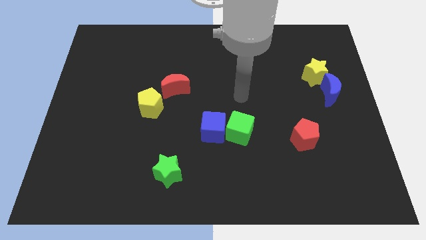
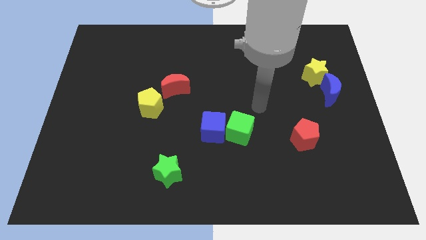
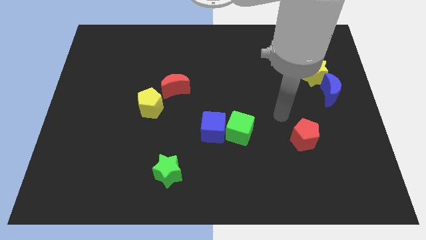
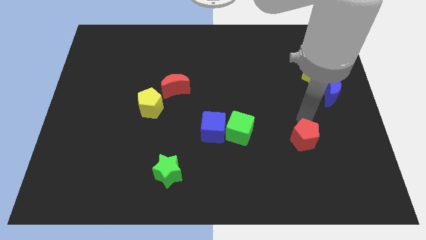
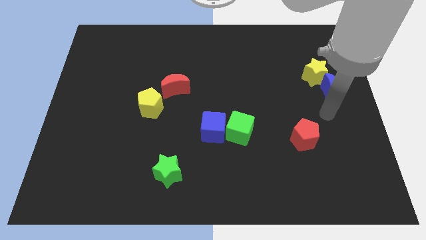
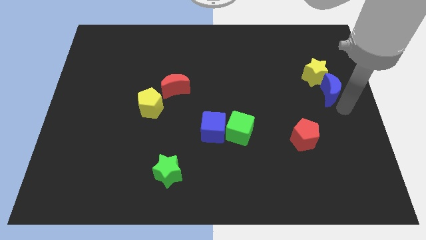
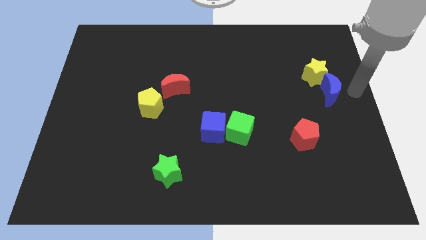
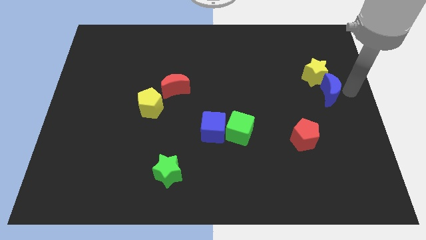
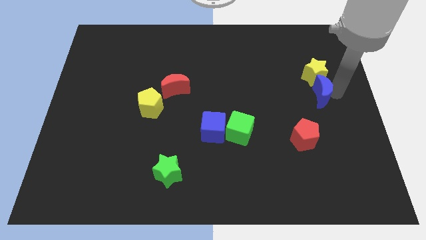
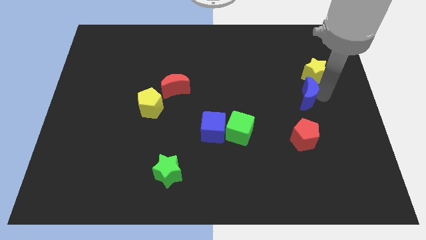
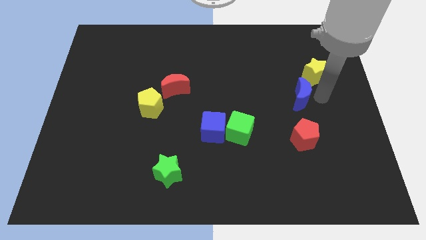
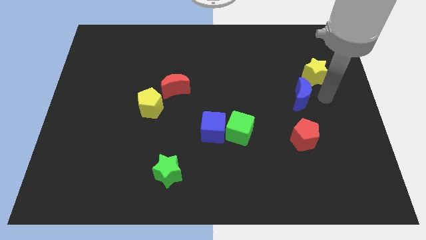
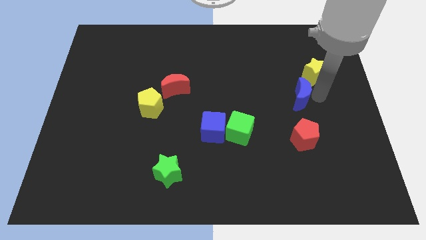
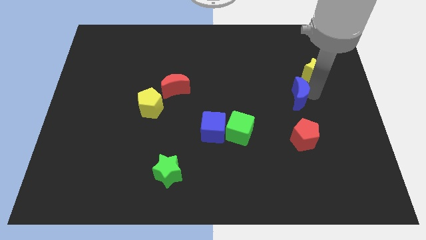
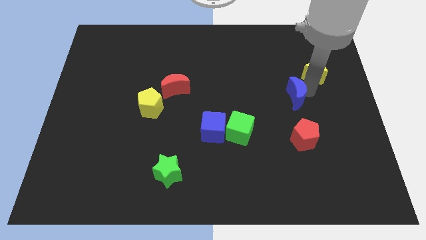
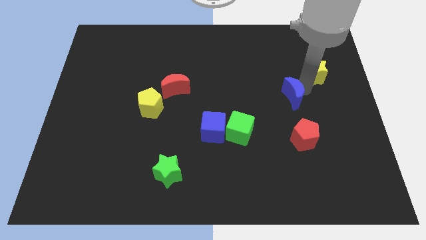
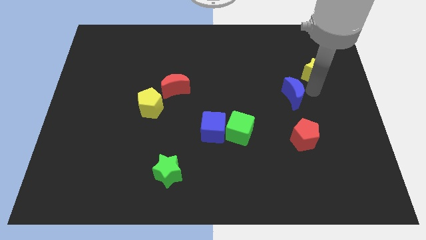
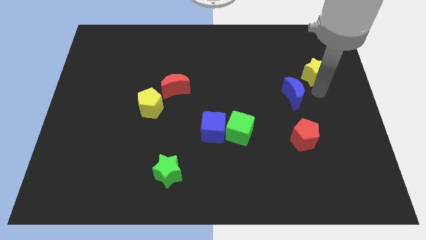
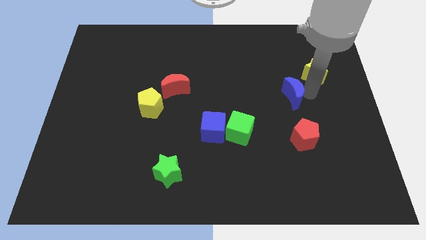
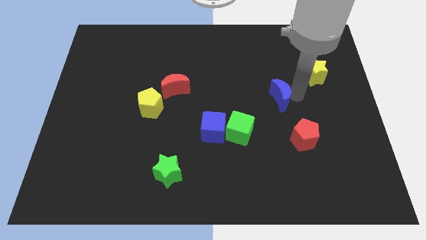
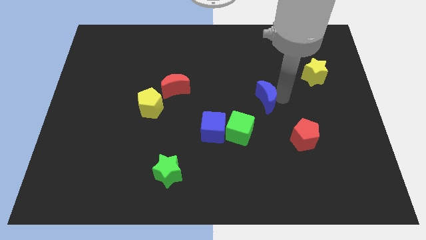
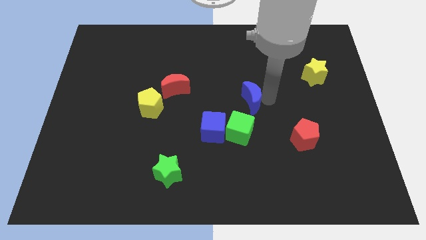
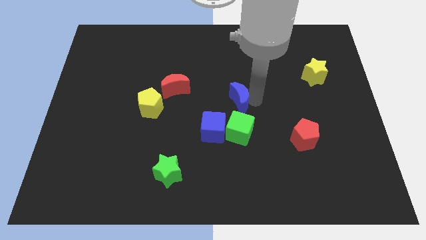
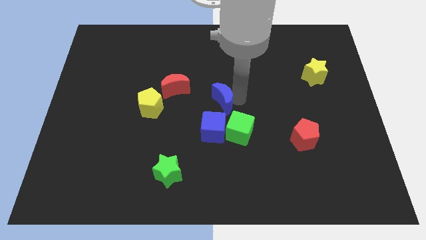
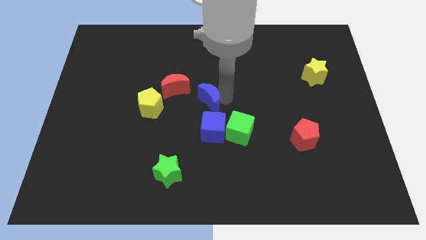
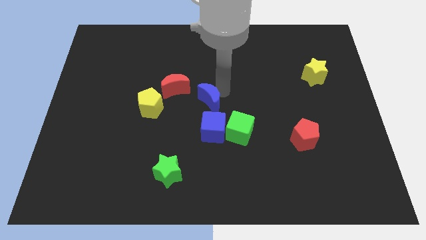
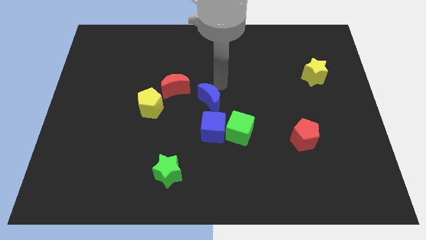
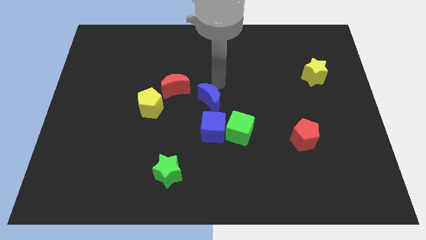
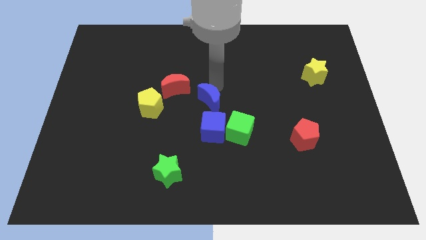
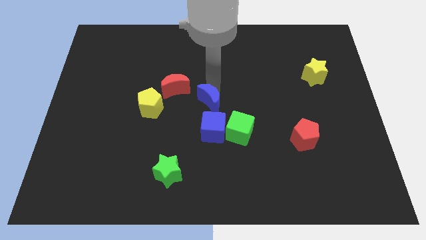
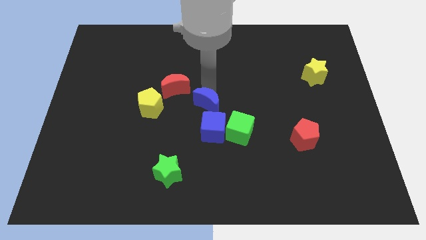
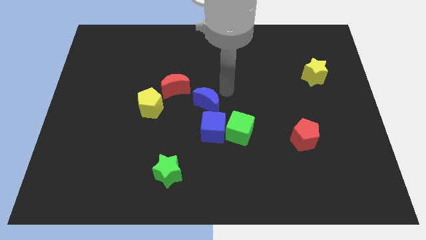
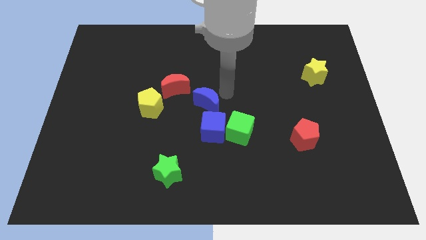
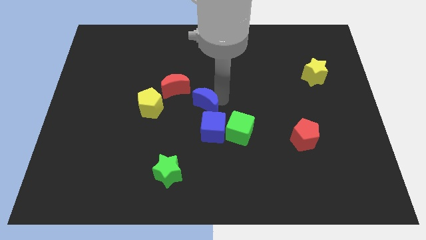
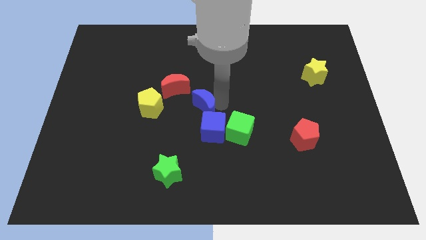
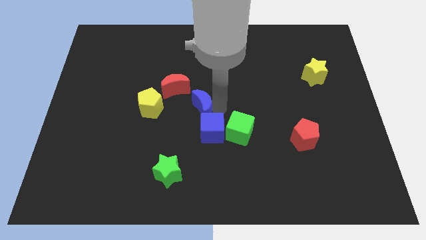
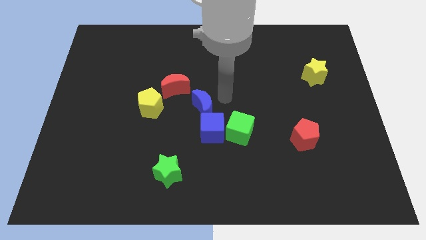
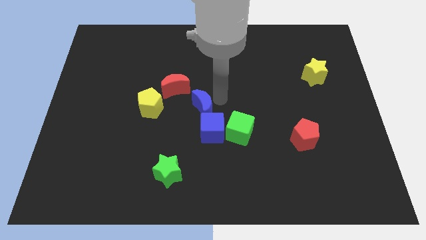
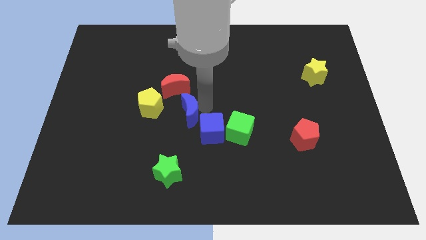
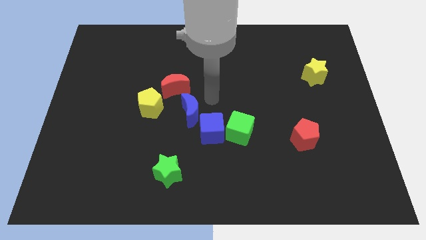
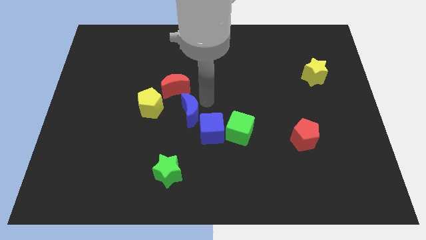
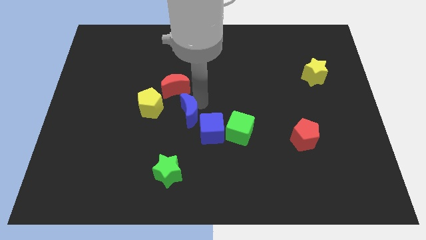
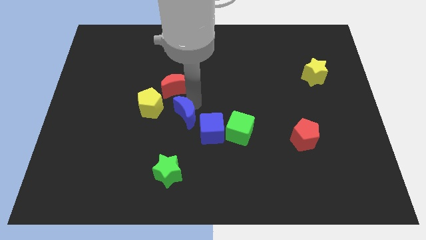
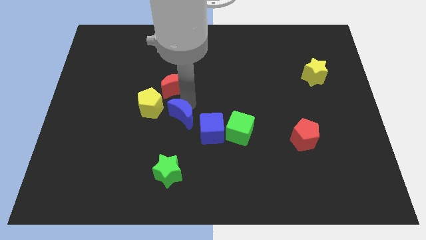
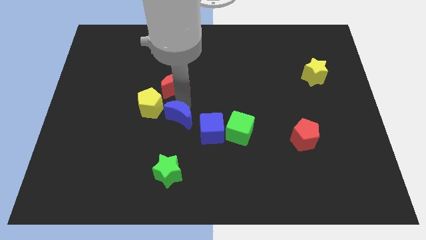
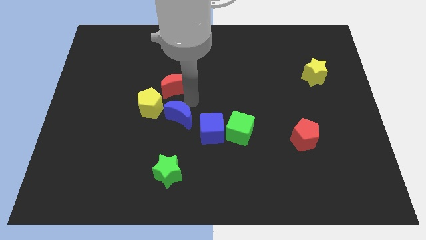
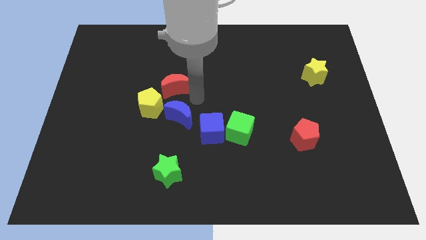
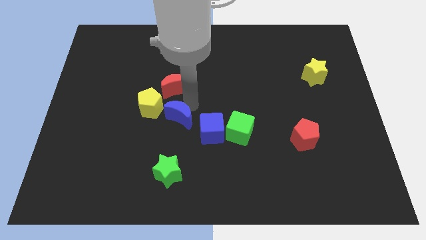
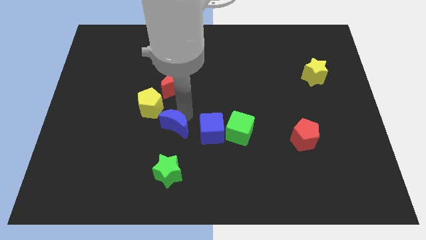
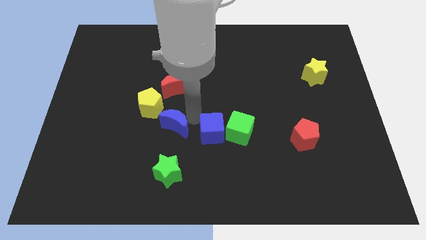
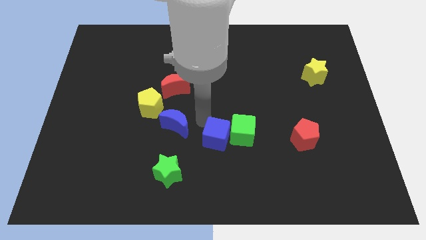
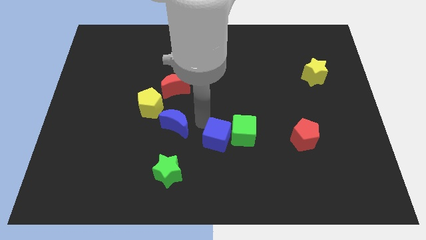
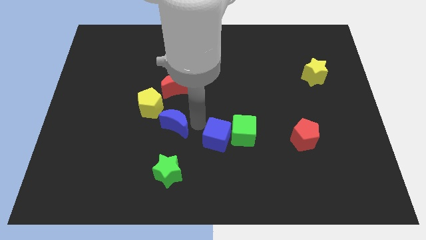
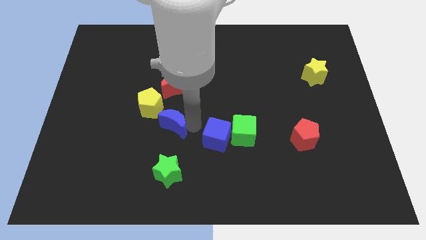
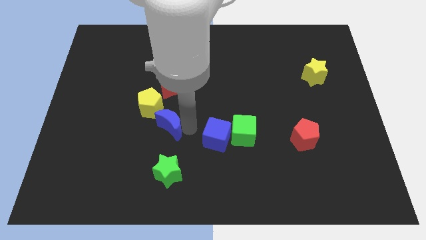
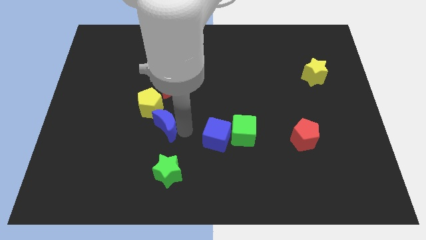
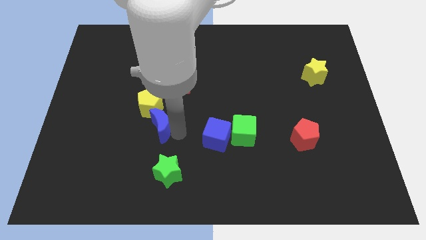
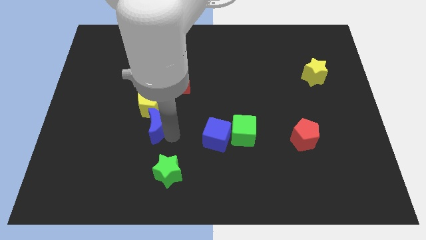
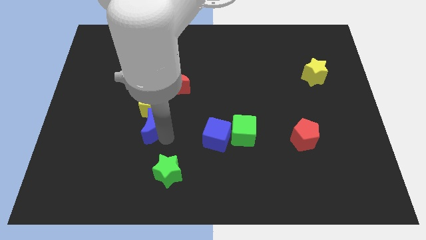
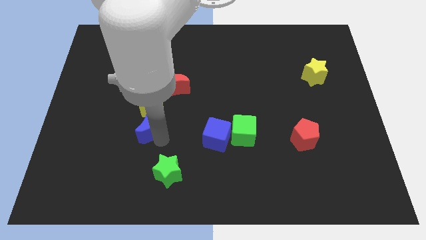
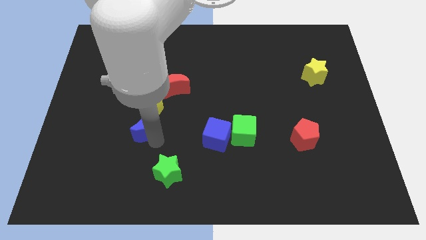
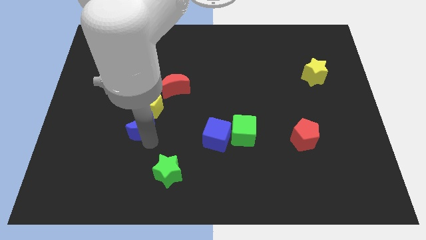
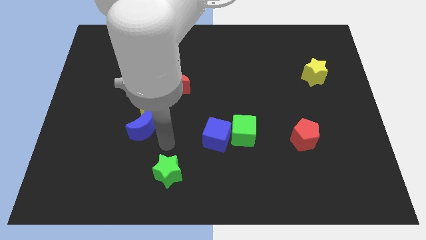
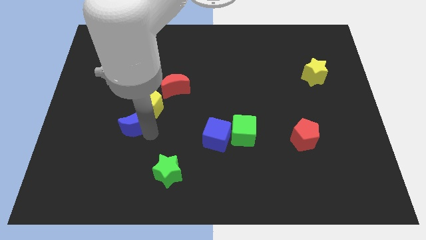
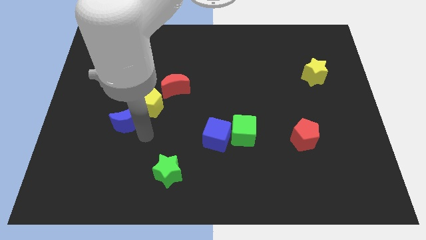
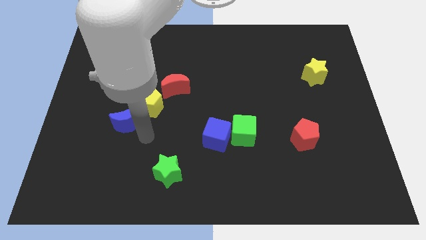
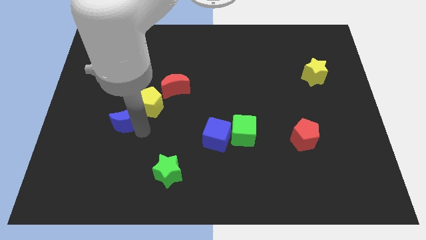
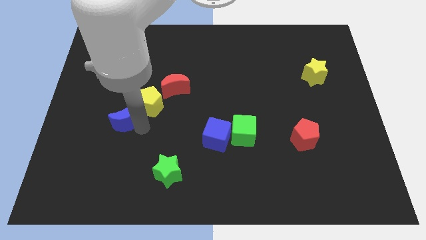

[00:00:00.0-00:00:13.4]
slide the blue moon left of the yellow pentagon
